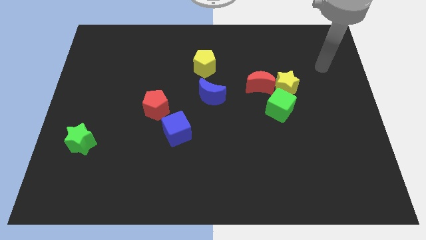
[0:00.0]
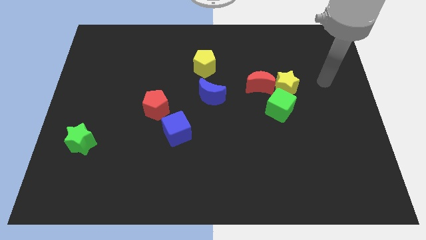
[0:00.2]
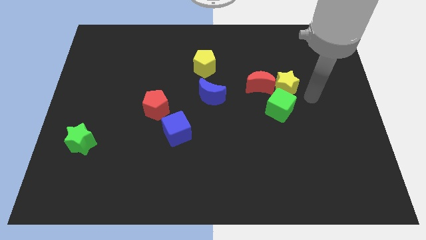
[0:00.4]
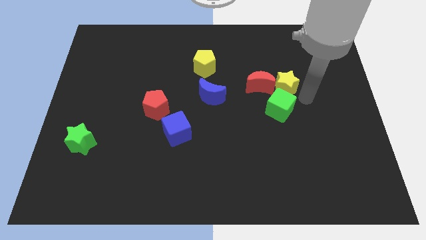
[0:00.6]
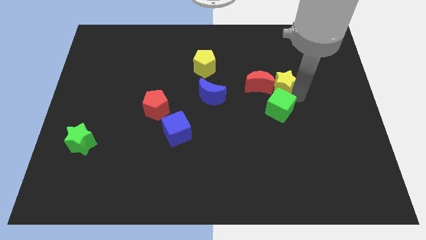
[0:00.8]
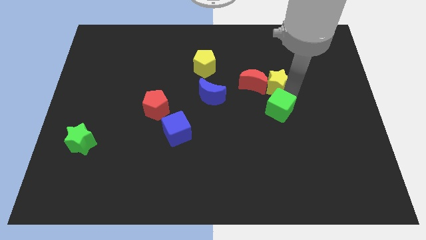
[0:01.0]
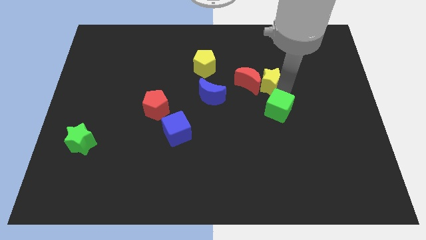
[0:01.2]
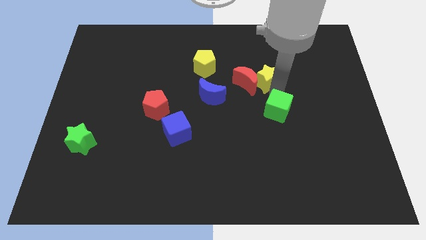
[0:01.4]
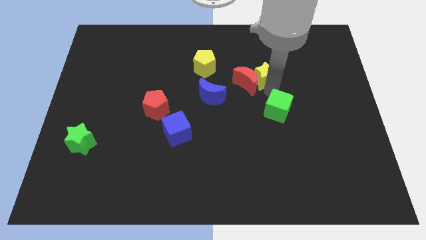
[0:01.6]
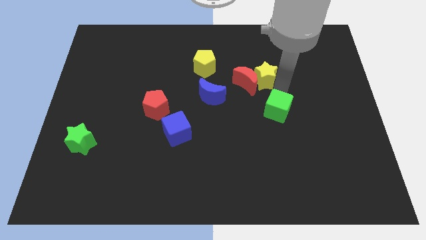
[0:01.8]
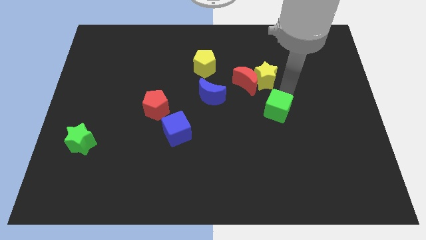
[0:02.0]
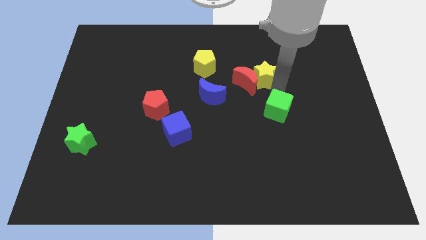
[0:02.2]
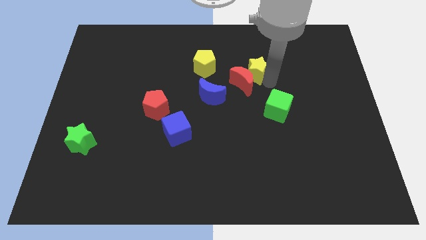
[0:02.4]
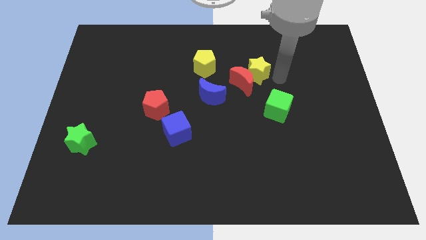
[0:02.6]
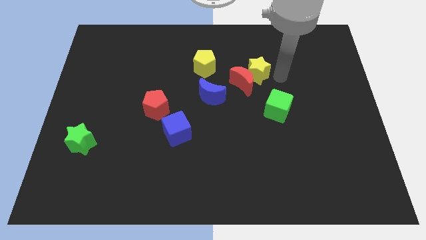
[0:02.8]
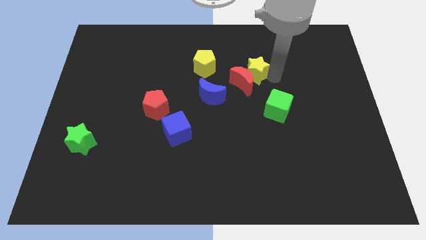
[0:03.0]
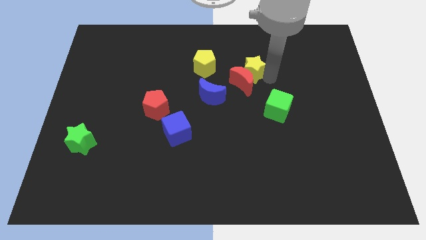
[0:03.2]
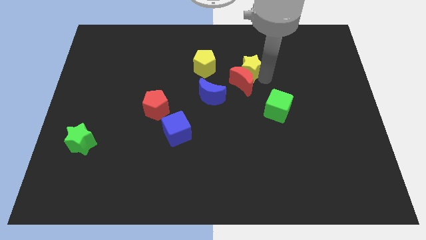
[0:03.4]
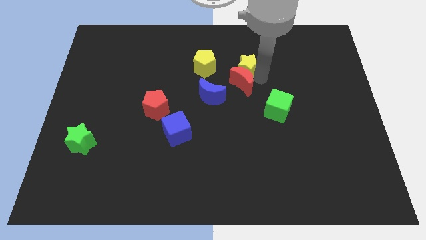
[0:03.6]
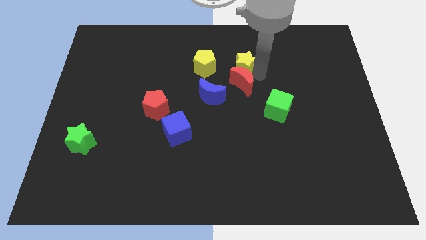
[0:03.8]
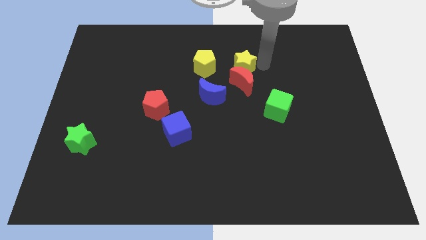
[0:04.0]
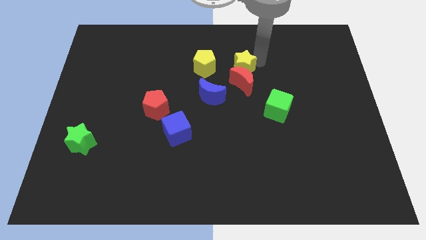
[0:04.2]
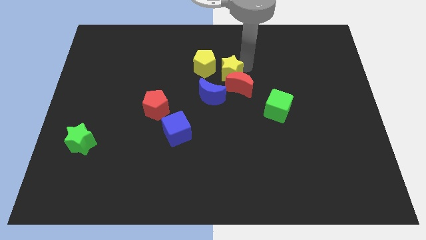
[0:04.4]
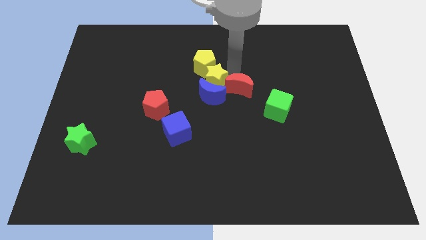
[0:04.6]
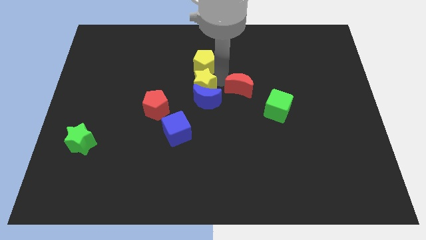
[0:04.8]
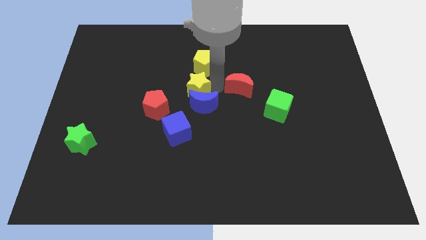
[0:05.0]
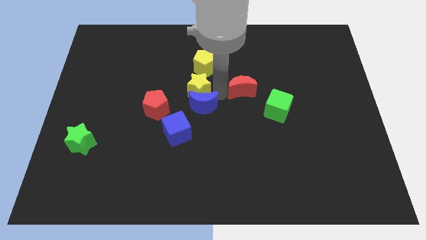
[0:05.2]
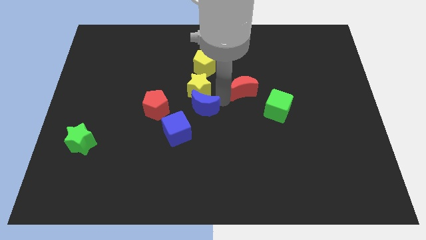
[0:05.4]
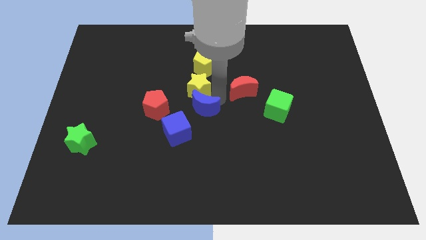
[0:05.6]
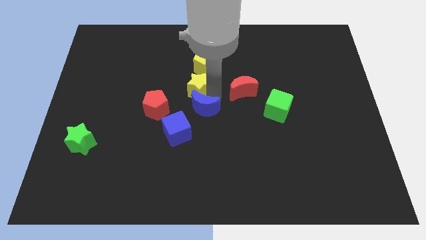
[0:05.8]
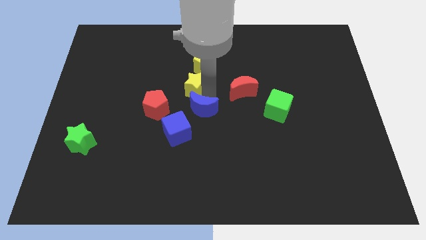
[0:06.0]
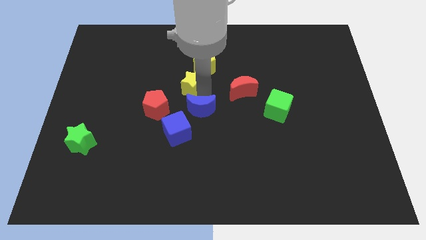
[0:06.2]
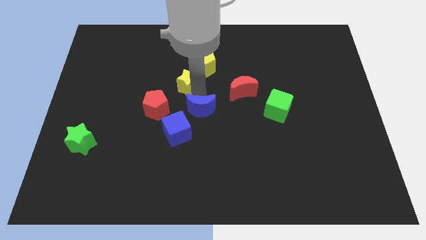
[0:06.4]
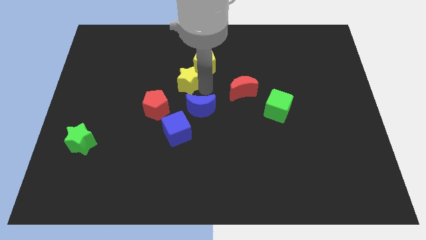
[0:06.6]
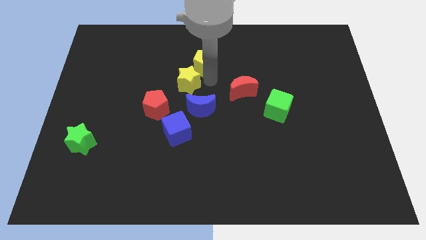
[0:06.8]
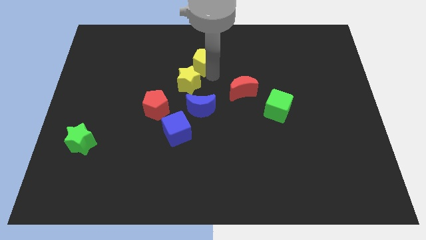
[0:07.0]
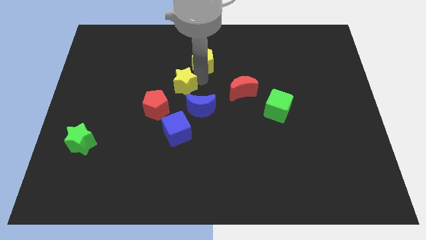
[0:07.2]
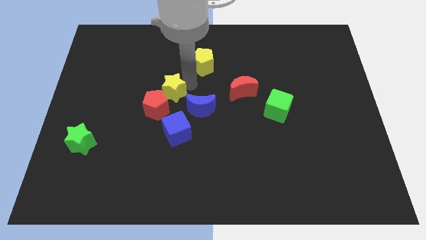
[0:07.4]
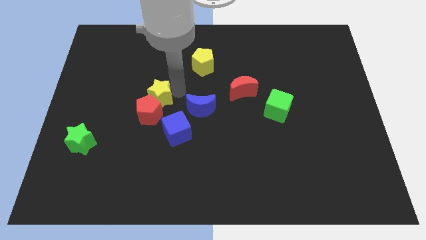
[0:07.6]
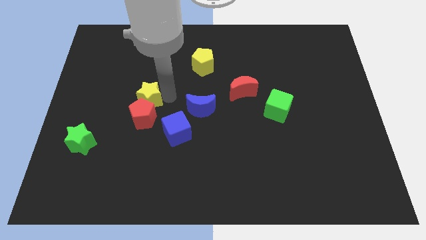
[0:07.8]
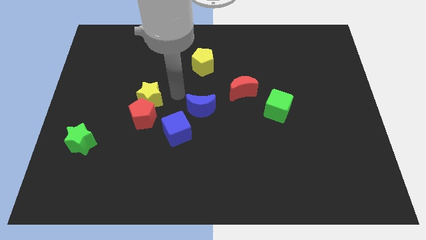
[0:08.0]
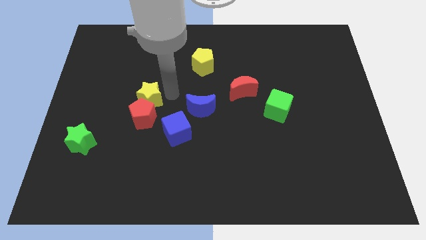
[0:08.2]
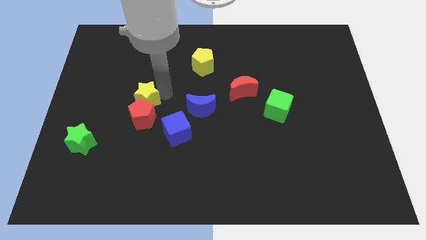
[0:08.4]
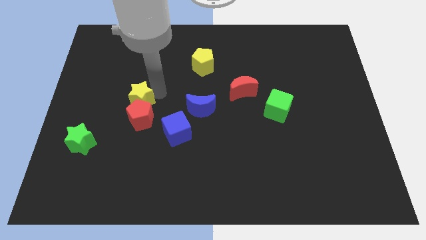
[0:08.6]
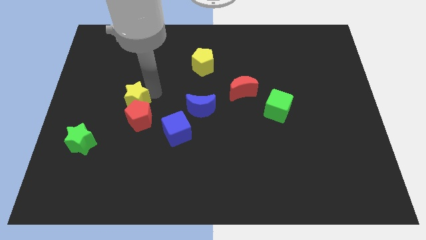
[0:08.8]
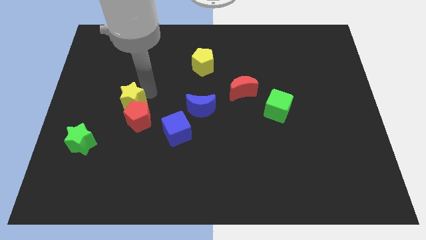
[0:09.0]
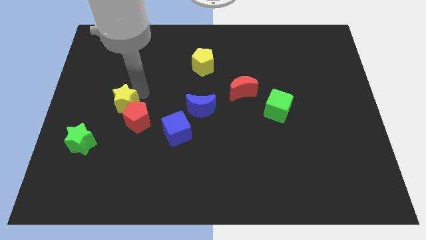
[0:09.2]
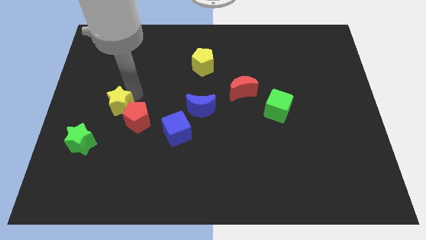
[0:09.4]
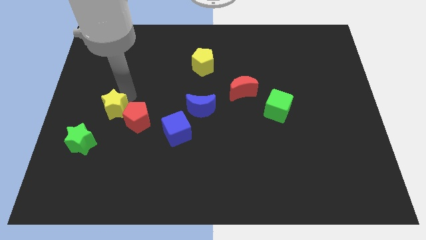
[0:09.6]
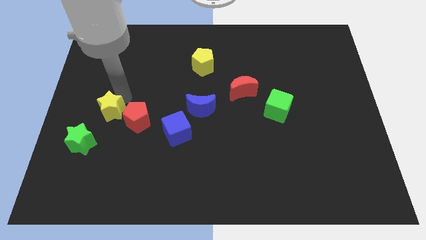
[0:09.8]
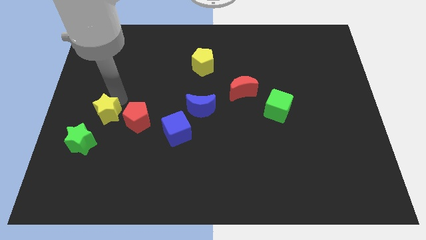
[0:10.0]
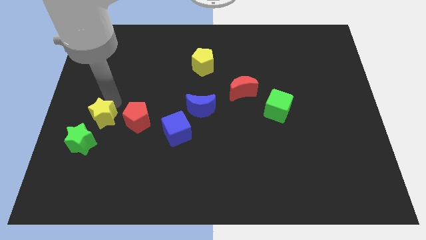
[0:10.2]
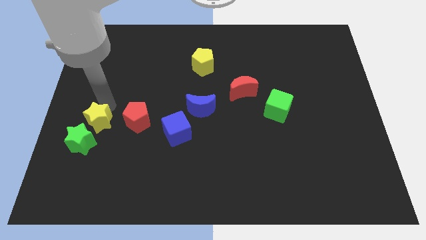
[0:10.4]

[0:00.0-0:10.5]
slide the yellow star to the green star

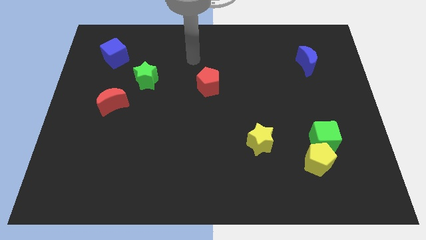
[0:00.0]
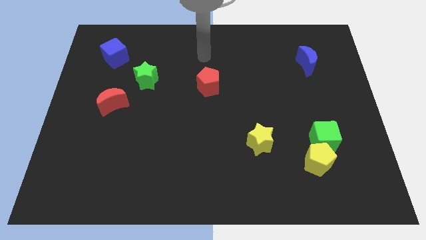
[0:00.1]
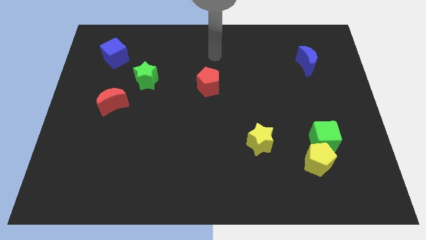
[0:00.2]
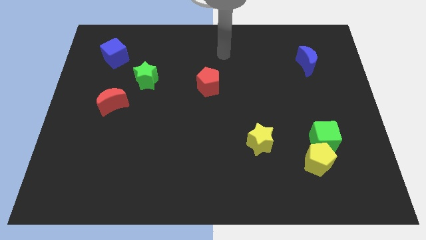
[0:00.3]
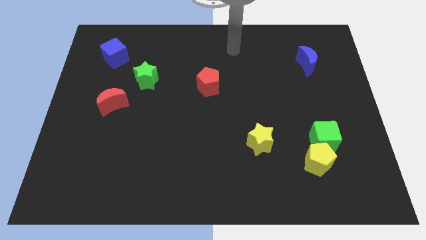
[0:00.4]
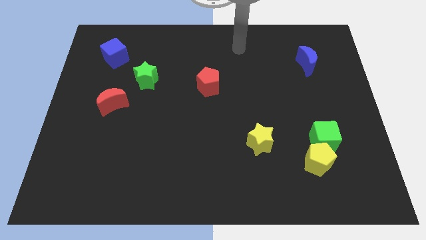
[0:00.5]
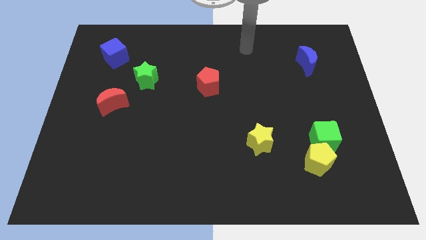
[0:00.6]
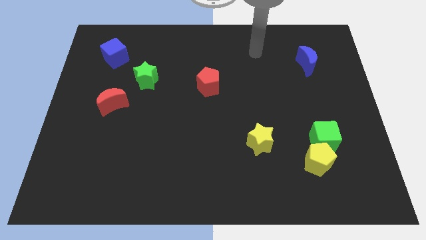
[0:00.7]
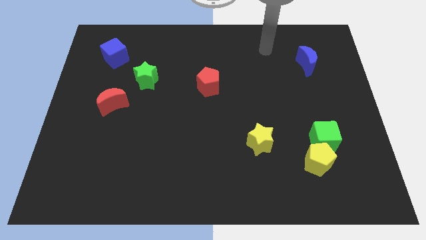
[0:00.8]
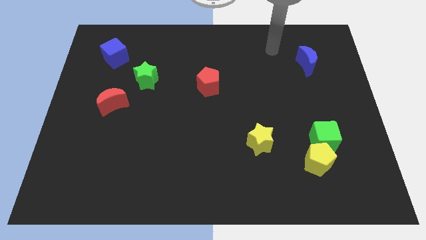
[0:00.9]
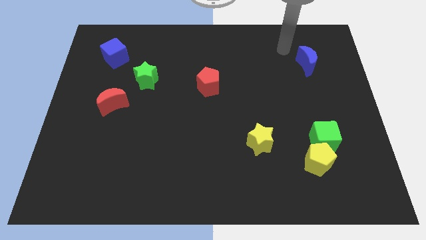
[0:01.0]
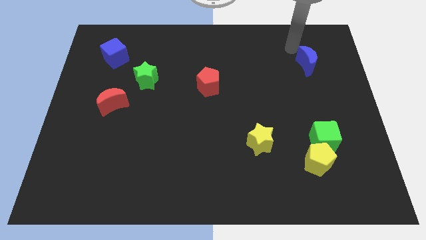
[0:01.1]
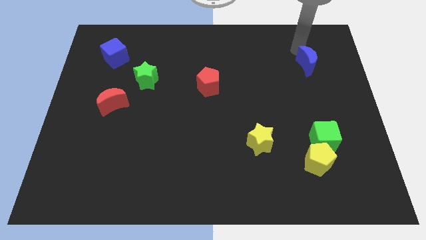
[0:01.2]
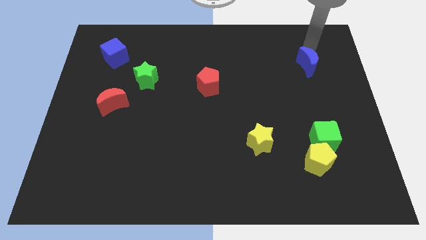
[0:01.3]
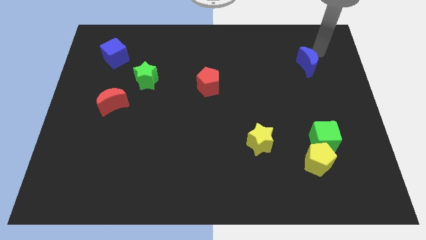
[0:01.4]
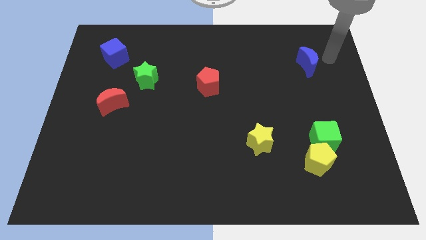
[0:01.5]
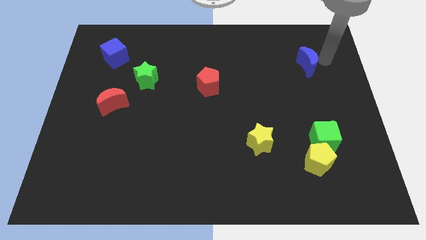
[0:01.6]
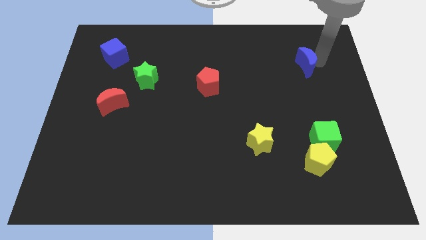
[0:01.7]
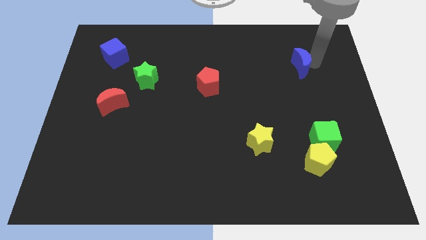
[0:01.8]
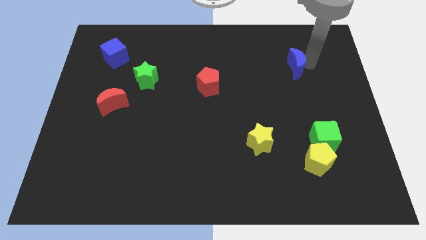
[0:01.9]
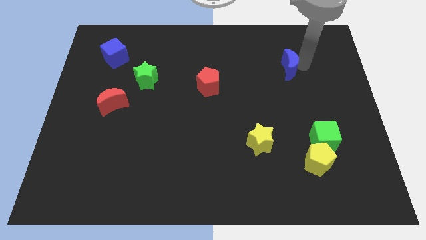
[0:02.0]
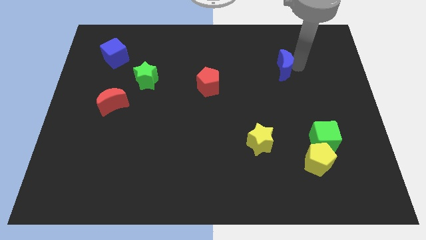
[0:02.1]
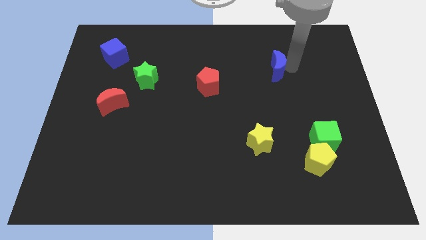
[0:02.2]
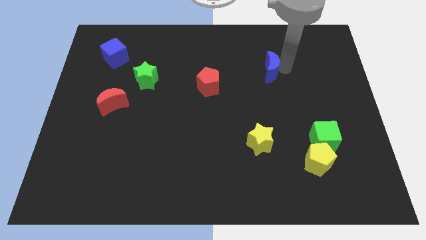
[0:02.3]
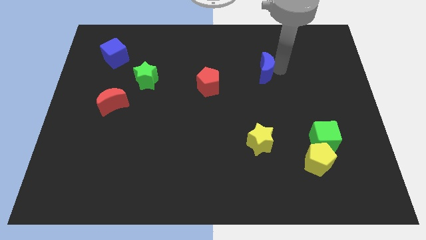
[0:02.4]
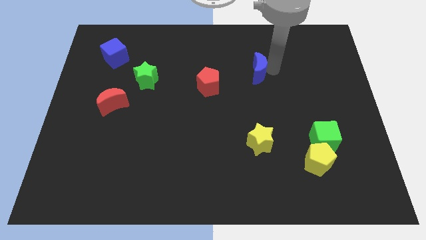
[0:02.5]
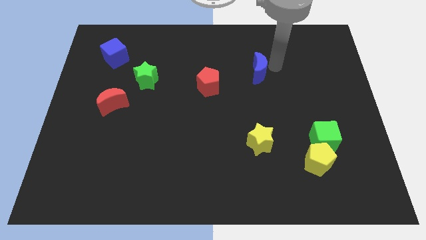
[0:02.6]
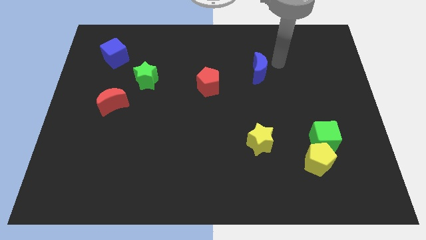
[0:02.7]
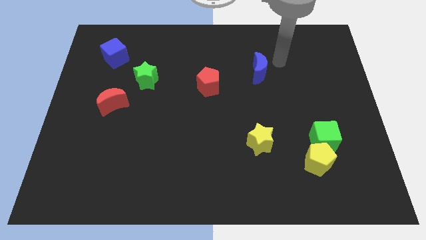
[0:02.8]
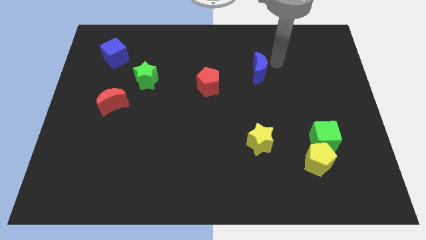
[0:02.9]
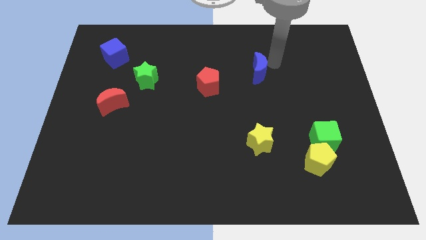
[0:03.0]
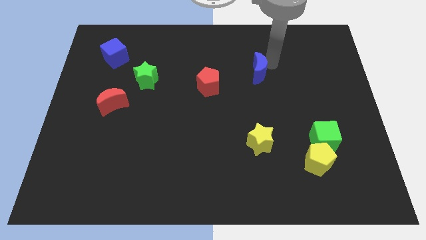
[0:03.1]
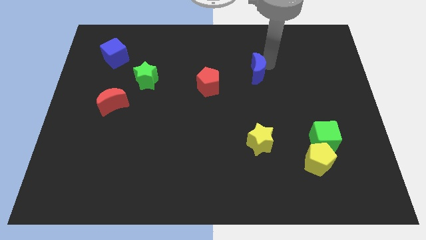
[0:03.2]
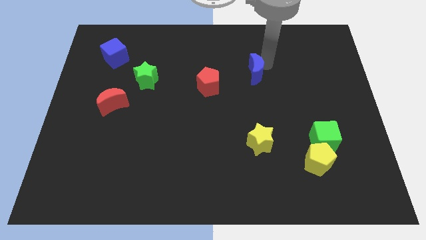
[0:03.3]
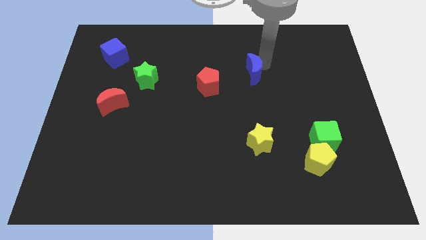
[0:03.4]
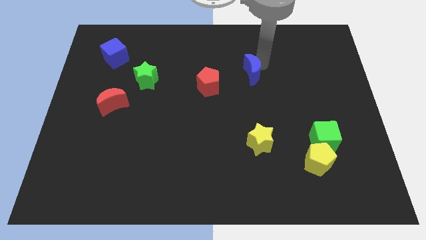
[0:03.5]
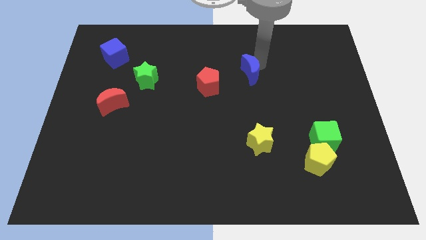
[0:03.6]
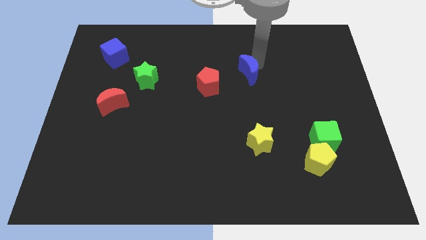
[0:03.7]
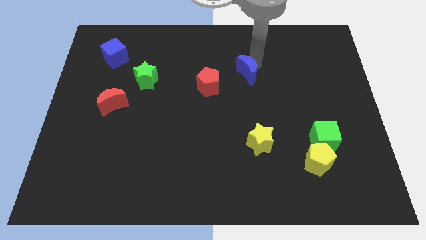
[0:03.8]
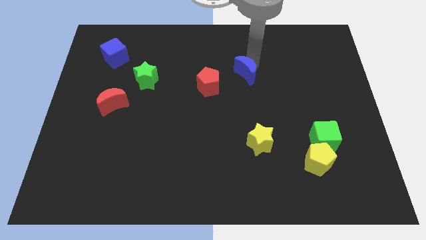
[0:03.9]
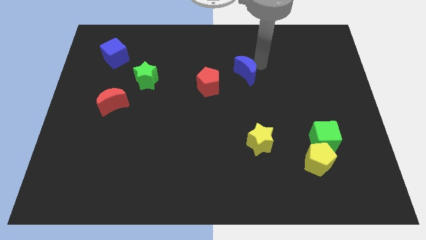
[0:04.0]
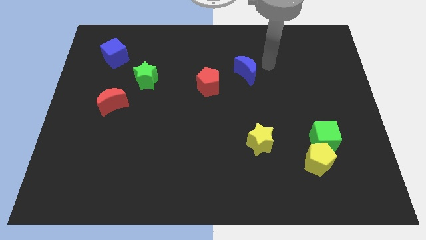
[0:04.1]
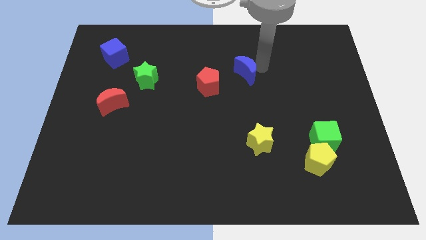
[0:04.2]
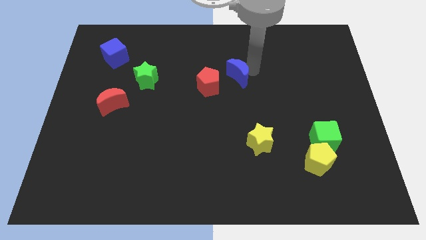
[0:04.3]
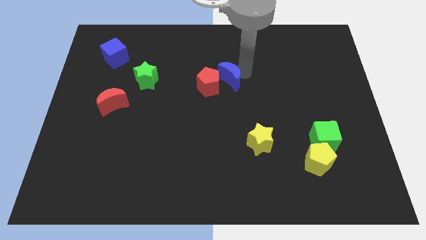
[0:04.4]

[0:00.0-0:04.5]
put the blue moon next to the red pentagon
